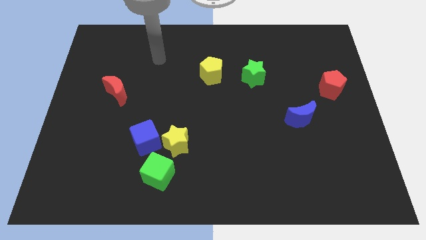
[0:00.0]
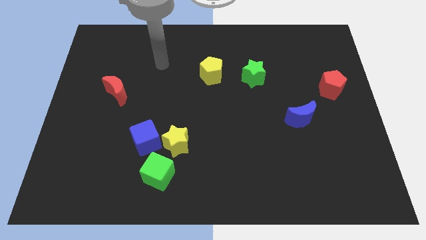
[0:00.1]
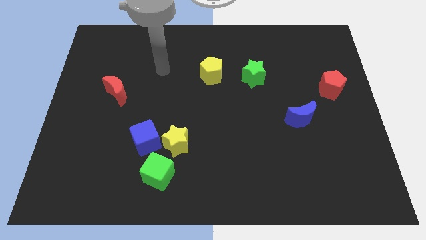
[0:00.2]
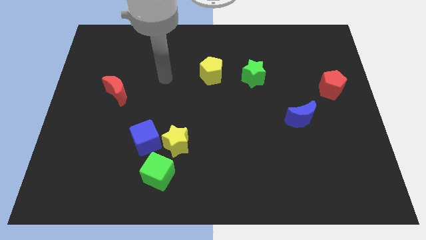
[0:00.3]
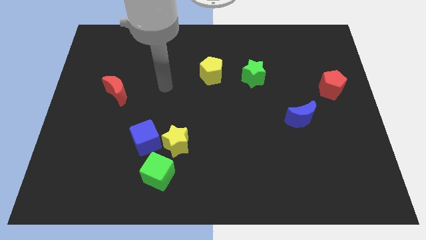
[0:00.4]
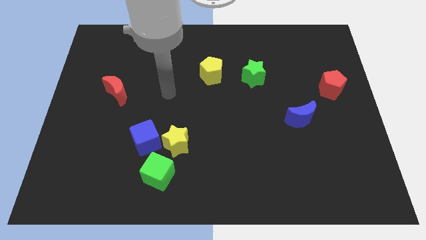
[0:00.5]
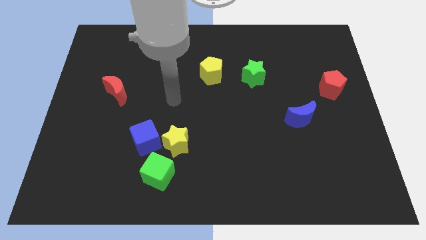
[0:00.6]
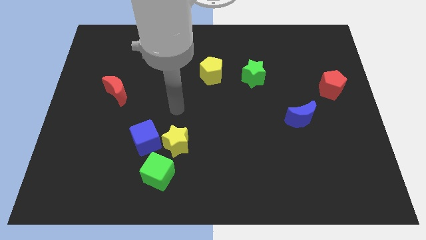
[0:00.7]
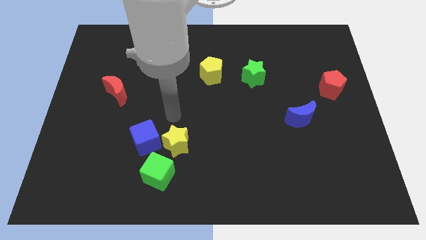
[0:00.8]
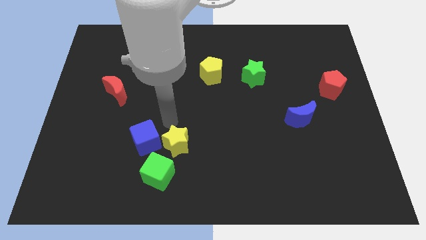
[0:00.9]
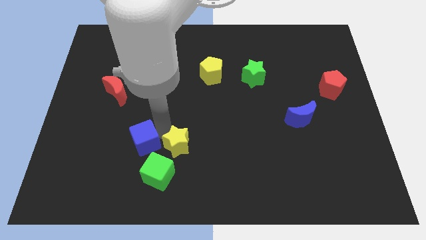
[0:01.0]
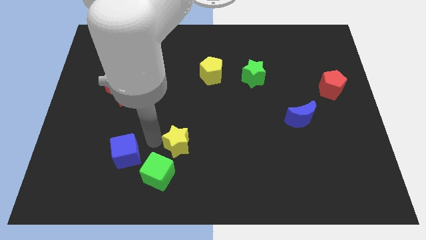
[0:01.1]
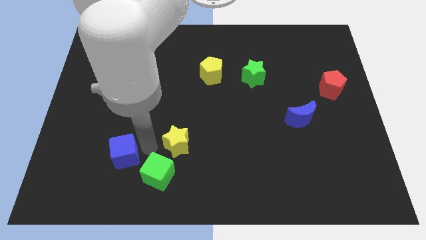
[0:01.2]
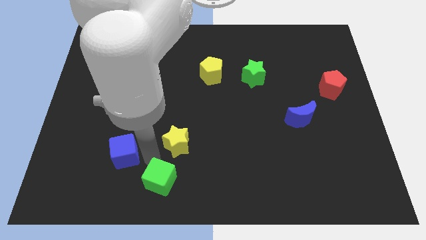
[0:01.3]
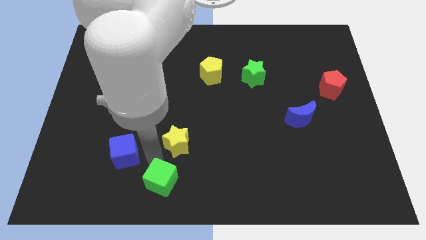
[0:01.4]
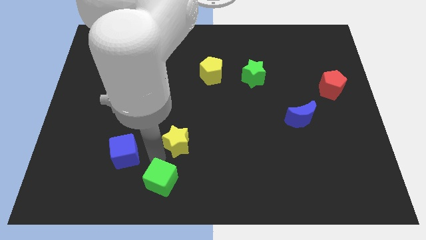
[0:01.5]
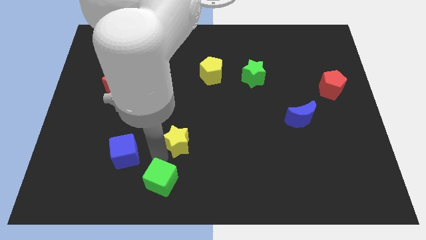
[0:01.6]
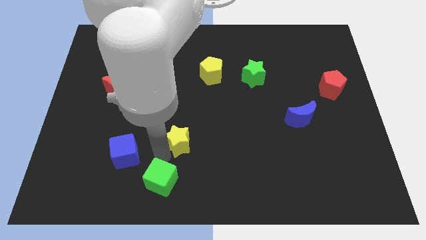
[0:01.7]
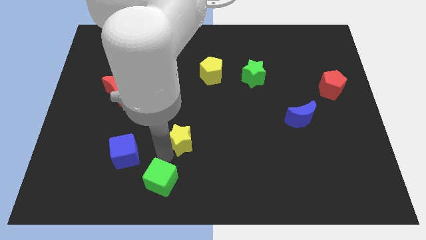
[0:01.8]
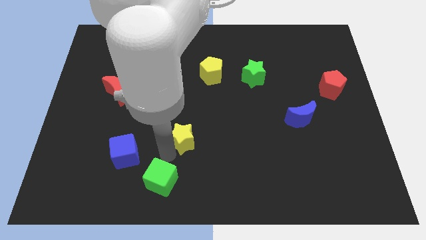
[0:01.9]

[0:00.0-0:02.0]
pull the yellow star apart from the blue cube and green cube

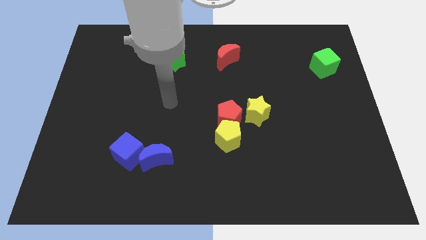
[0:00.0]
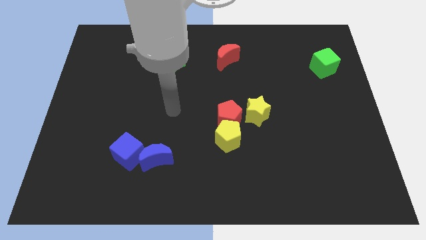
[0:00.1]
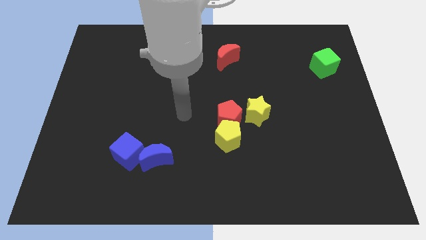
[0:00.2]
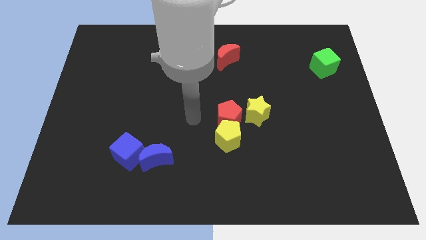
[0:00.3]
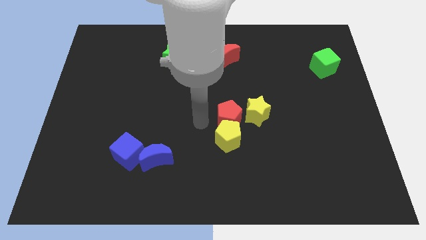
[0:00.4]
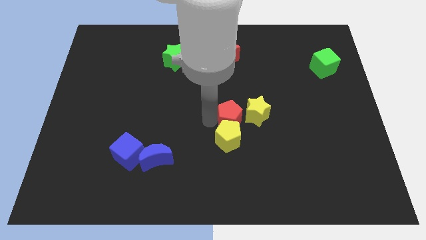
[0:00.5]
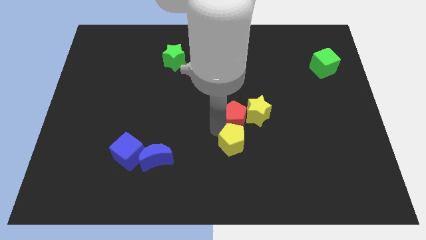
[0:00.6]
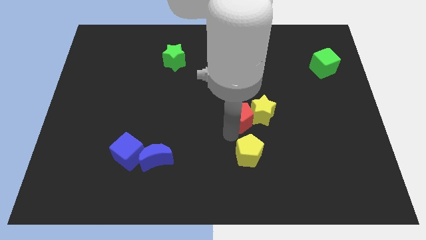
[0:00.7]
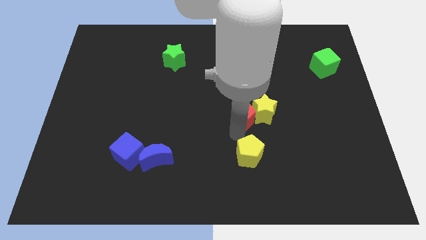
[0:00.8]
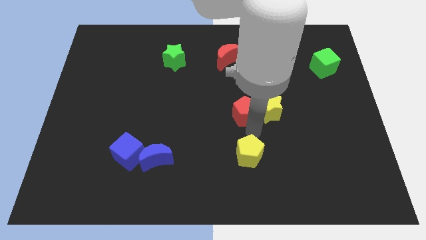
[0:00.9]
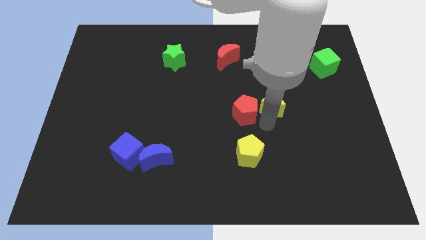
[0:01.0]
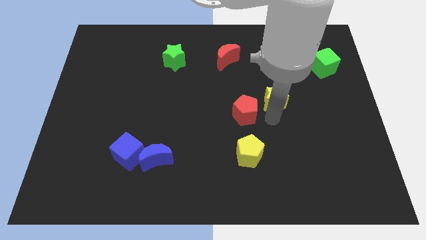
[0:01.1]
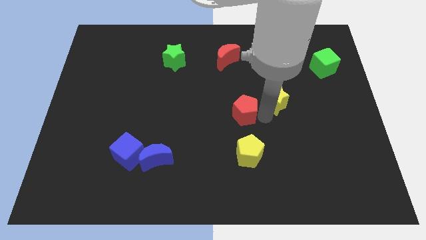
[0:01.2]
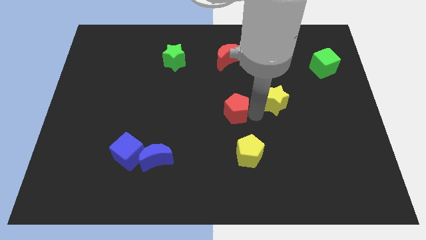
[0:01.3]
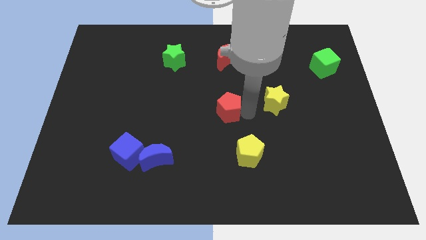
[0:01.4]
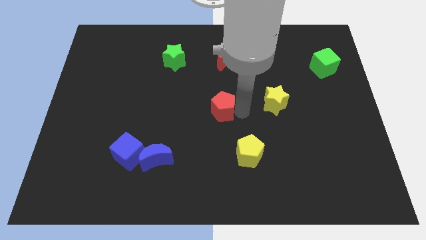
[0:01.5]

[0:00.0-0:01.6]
move the red pentagon away from the yellow pentagon and yellow star

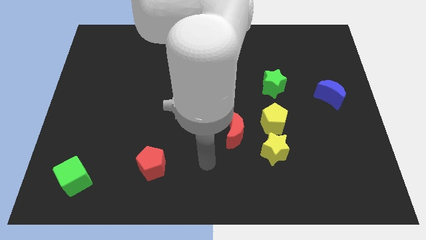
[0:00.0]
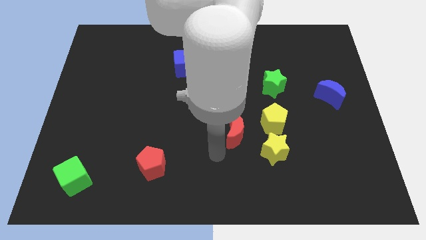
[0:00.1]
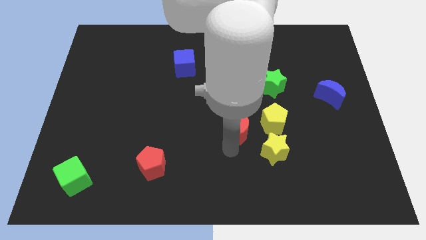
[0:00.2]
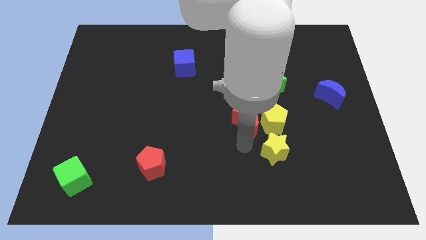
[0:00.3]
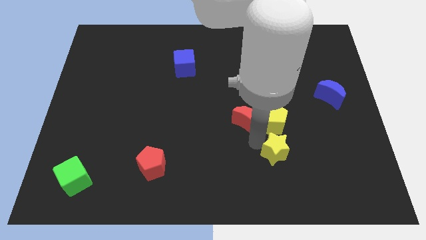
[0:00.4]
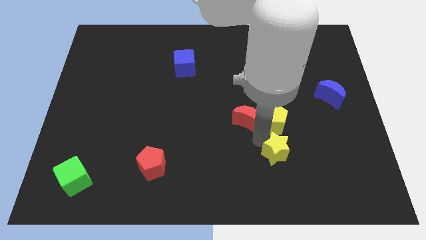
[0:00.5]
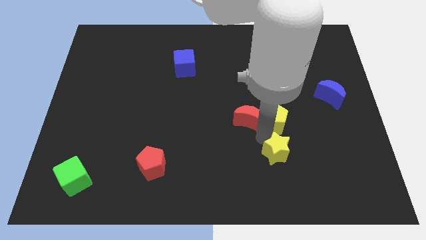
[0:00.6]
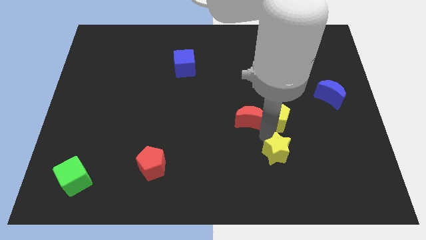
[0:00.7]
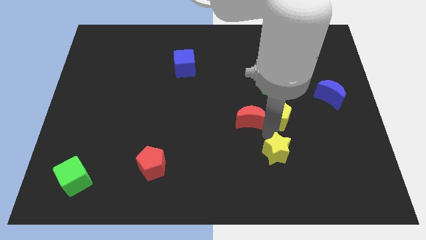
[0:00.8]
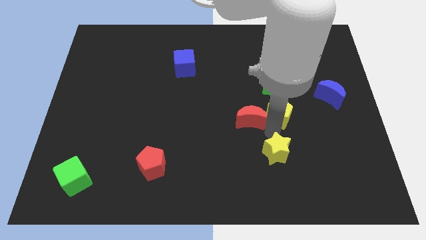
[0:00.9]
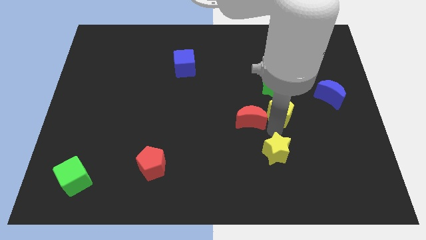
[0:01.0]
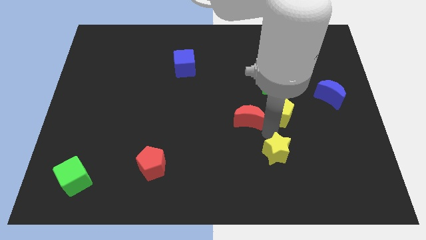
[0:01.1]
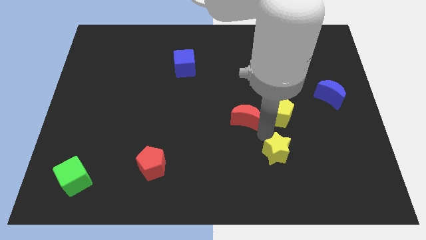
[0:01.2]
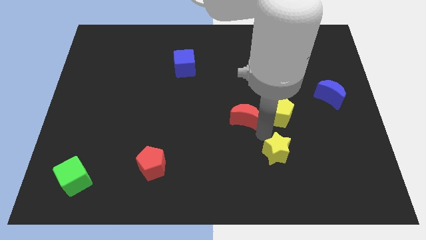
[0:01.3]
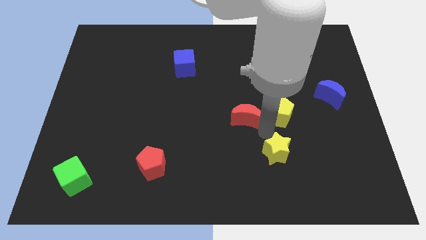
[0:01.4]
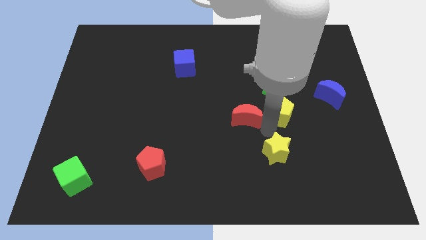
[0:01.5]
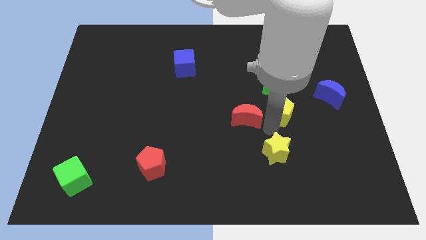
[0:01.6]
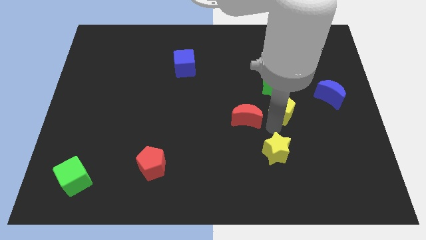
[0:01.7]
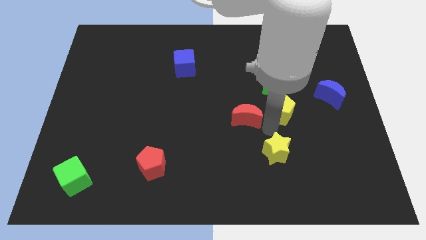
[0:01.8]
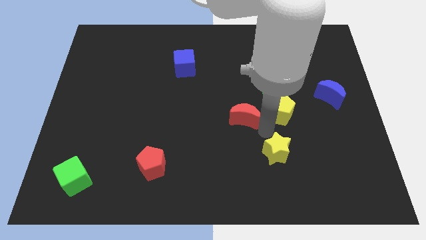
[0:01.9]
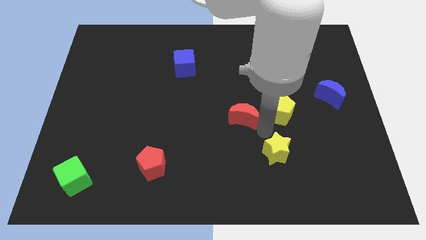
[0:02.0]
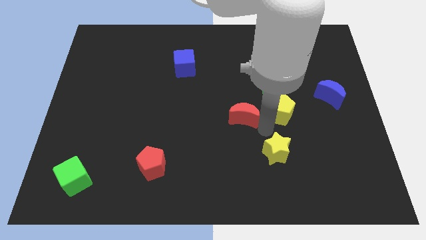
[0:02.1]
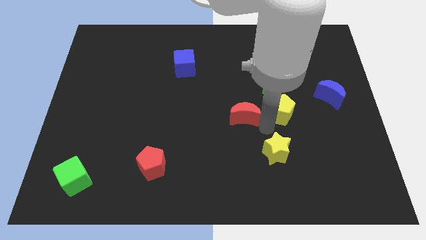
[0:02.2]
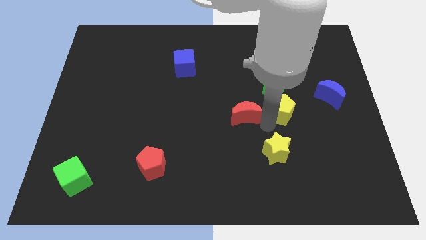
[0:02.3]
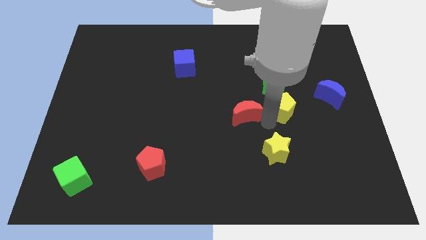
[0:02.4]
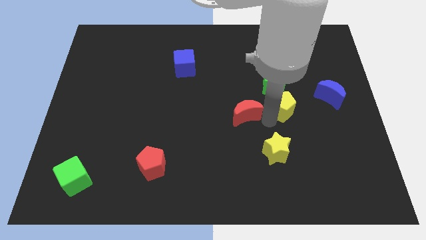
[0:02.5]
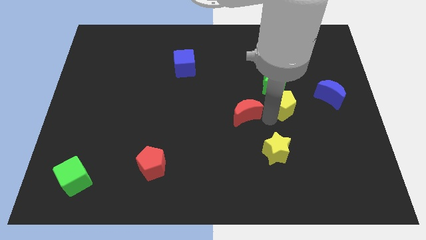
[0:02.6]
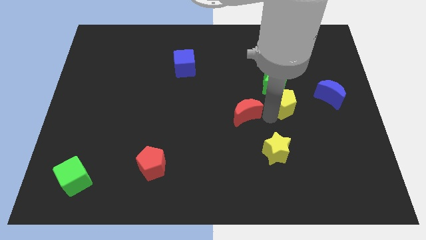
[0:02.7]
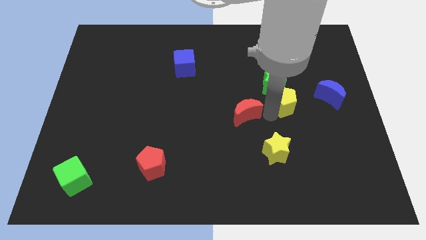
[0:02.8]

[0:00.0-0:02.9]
separate the yellow pentagon from the yellow star and red moon

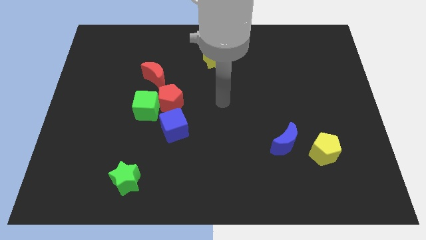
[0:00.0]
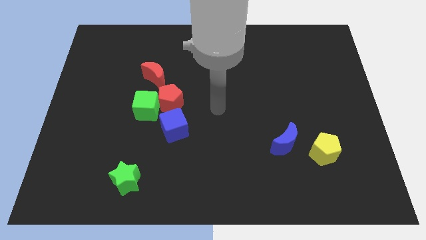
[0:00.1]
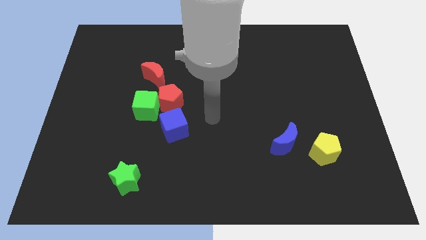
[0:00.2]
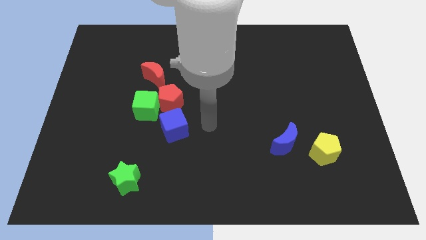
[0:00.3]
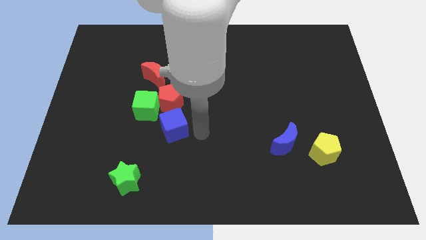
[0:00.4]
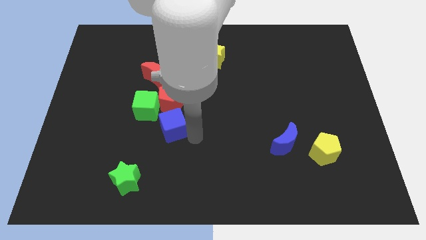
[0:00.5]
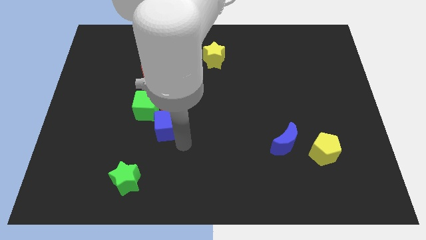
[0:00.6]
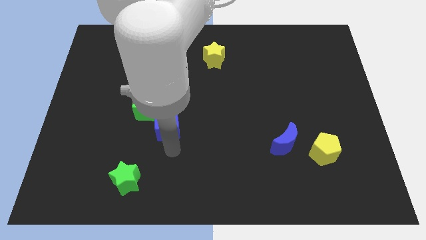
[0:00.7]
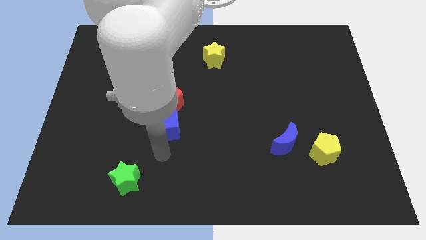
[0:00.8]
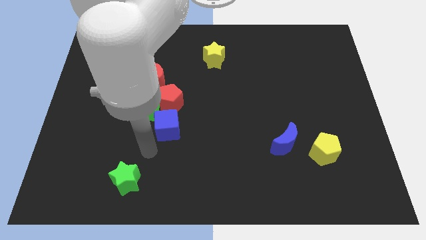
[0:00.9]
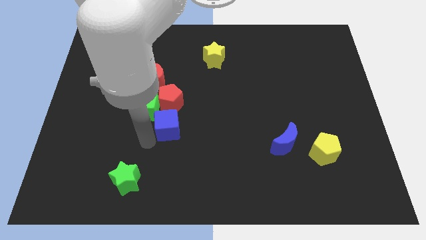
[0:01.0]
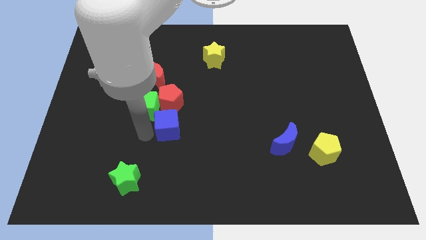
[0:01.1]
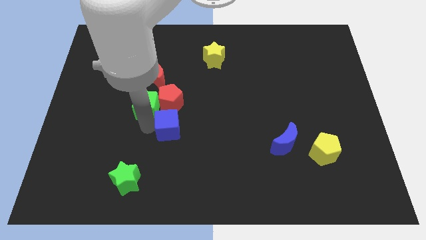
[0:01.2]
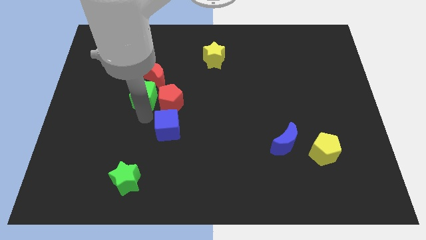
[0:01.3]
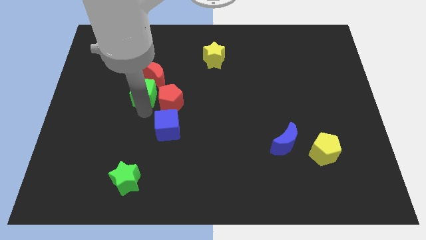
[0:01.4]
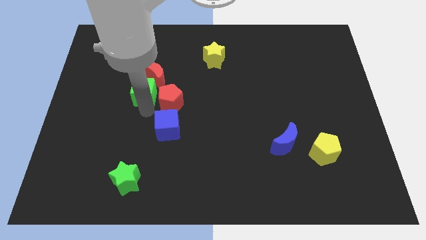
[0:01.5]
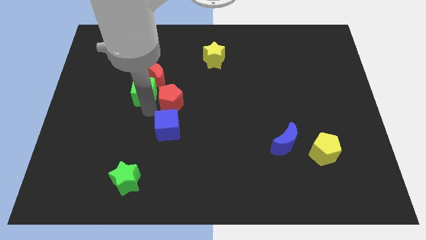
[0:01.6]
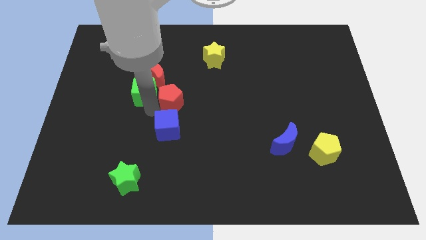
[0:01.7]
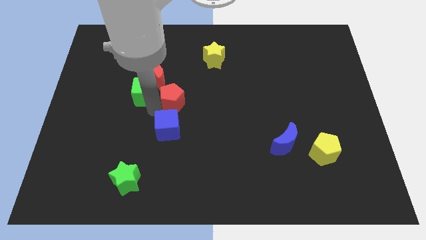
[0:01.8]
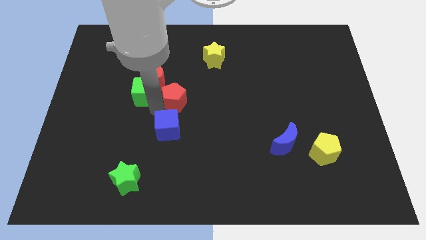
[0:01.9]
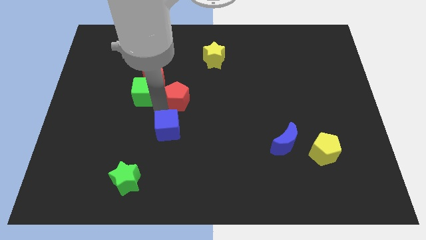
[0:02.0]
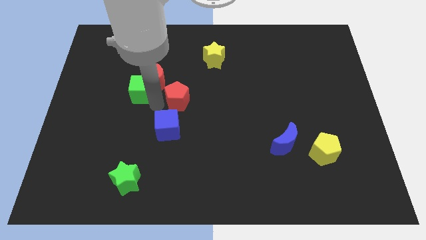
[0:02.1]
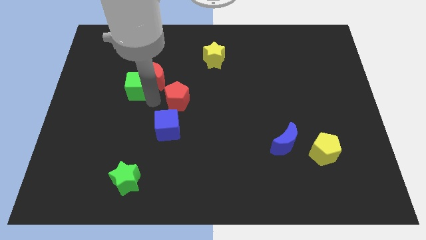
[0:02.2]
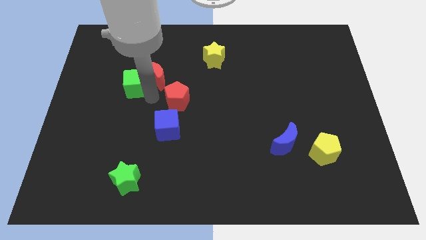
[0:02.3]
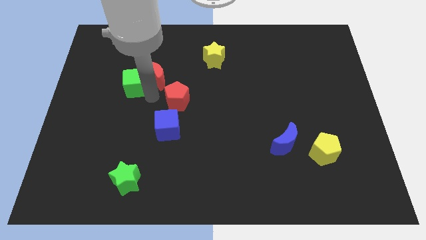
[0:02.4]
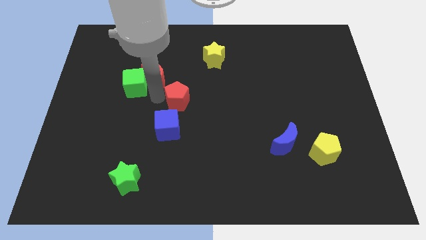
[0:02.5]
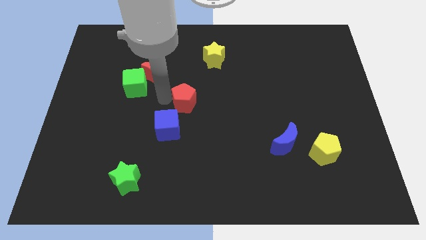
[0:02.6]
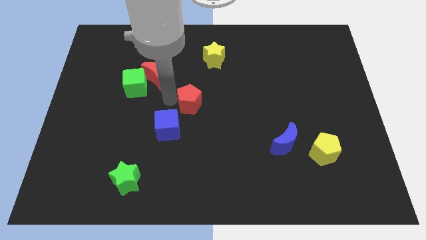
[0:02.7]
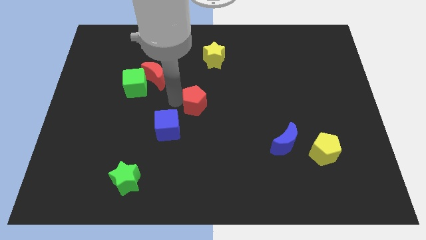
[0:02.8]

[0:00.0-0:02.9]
move the red pentagon away from the clump
